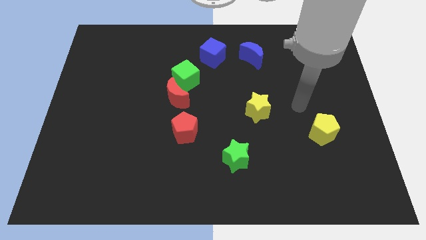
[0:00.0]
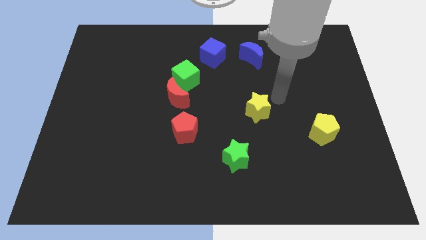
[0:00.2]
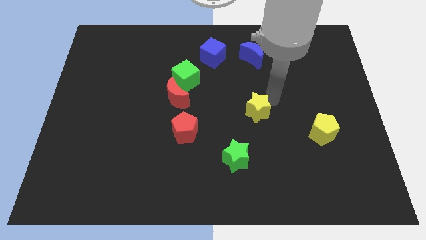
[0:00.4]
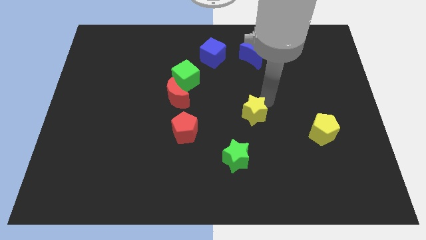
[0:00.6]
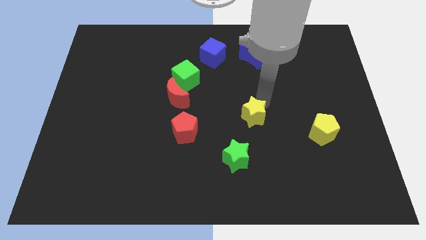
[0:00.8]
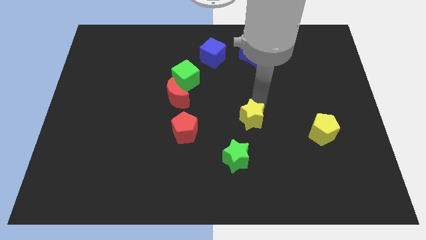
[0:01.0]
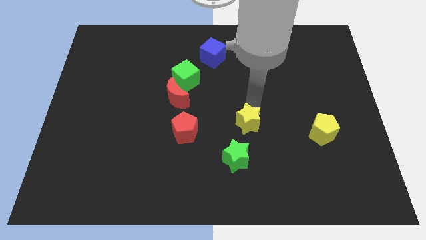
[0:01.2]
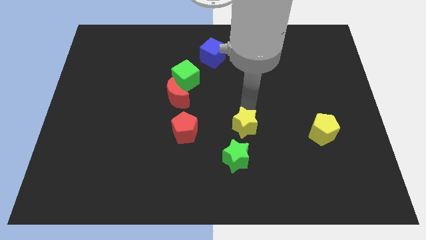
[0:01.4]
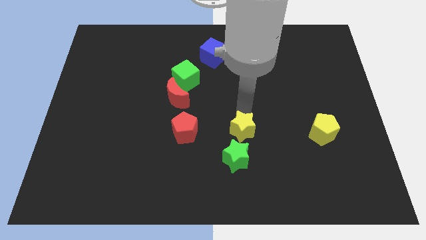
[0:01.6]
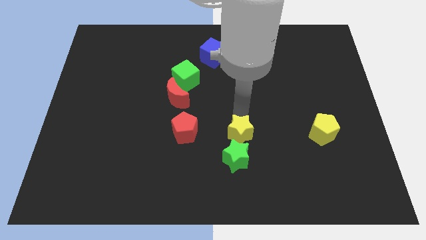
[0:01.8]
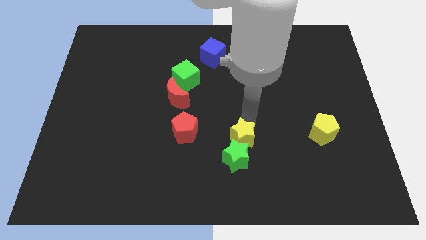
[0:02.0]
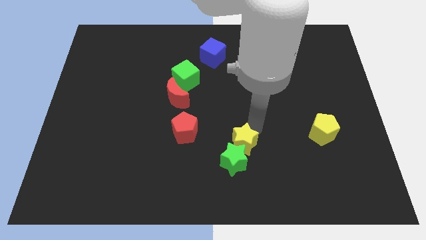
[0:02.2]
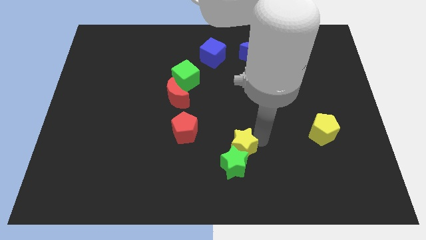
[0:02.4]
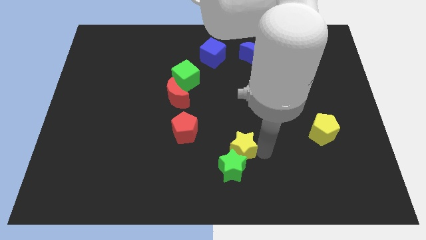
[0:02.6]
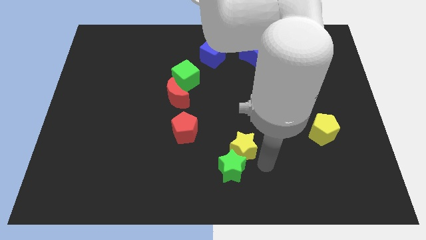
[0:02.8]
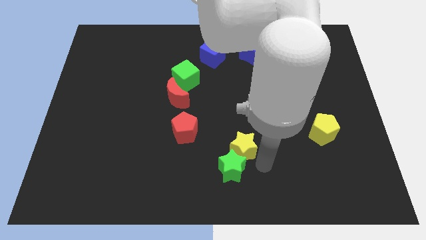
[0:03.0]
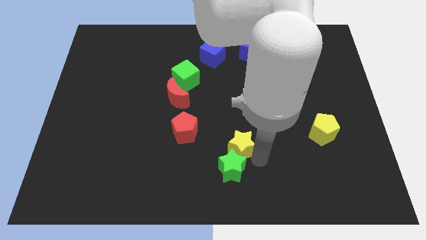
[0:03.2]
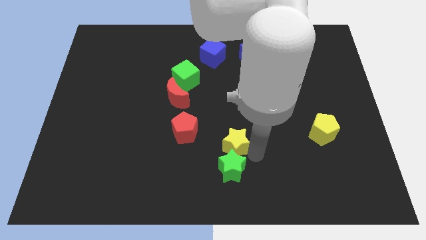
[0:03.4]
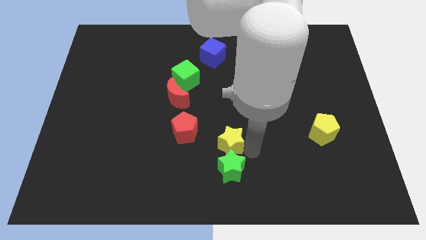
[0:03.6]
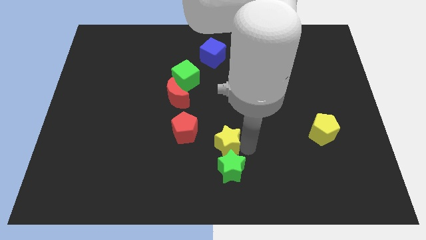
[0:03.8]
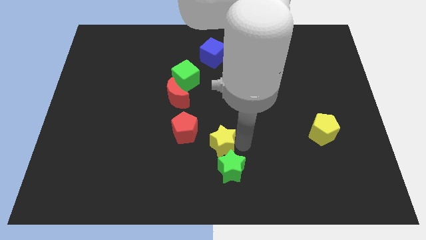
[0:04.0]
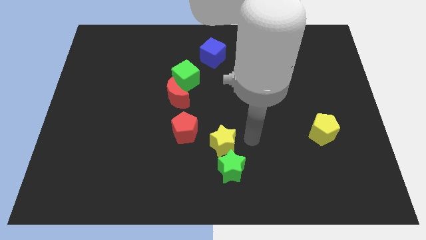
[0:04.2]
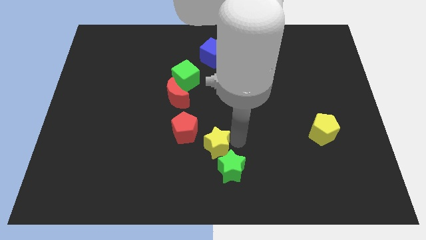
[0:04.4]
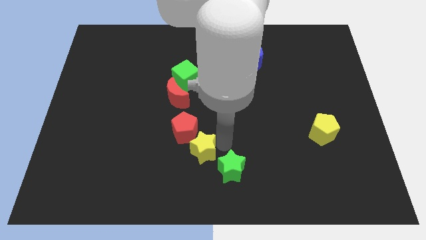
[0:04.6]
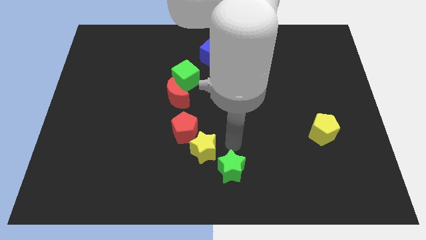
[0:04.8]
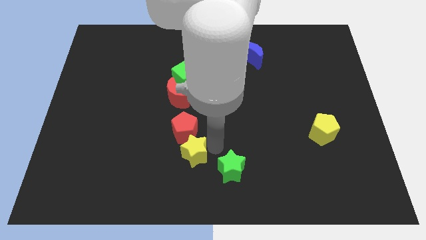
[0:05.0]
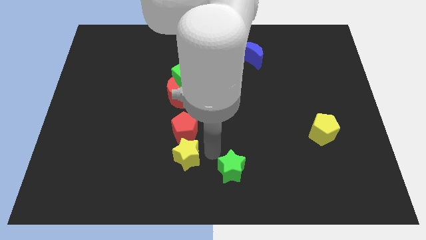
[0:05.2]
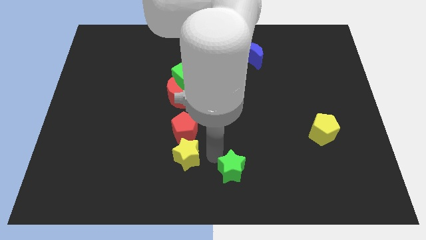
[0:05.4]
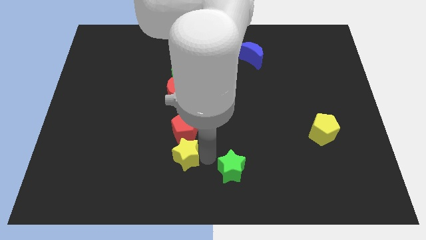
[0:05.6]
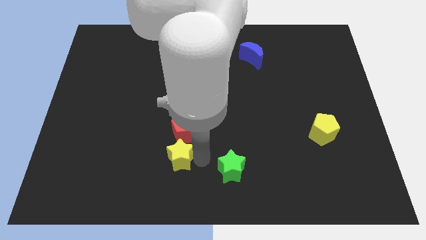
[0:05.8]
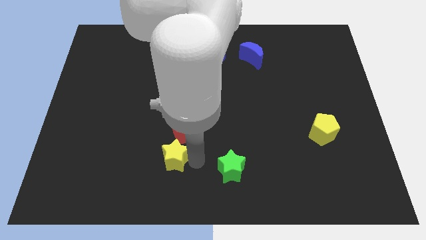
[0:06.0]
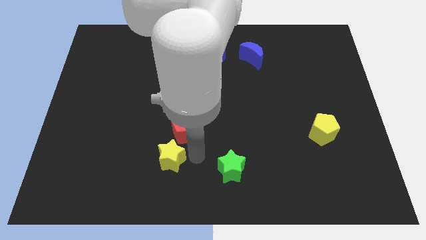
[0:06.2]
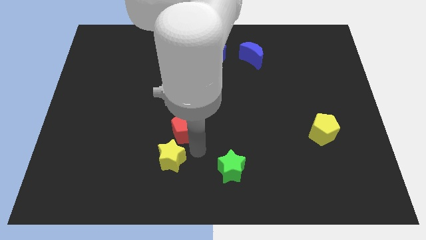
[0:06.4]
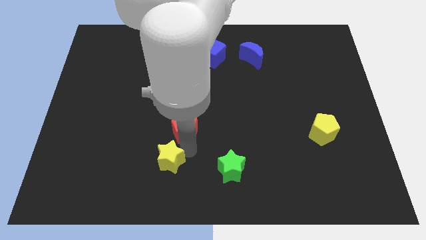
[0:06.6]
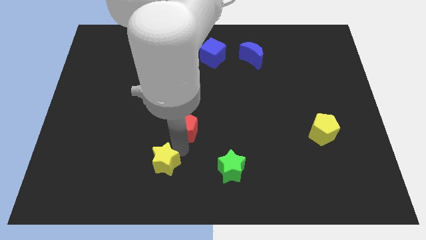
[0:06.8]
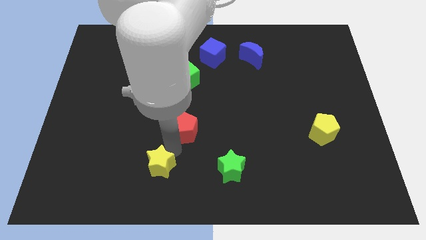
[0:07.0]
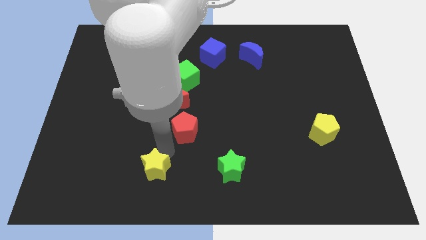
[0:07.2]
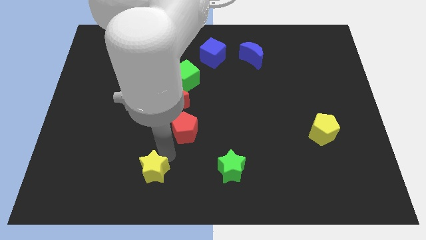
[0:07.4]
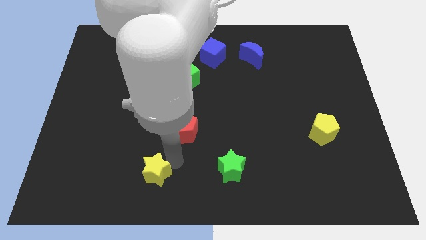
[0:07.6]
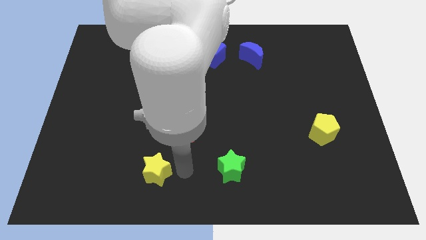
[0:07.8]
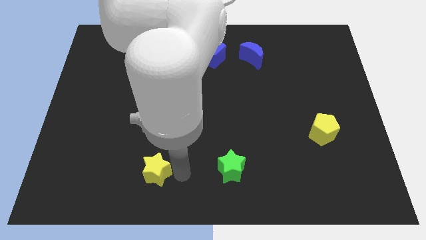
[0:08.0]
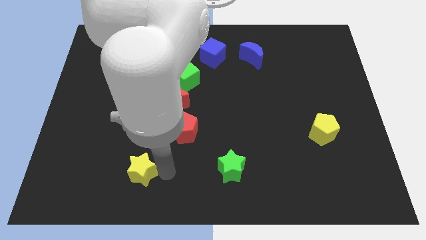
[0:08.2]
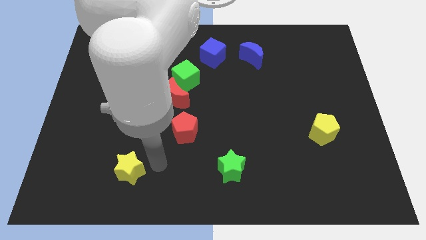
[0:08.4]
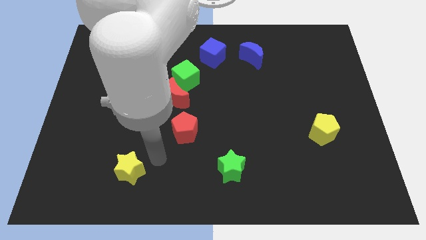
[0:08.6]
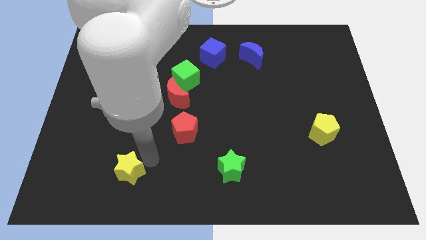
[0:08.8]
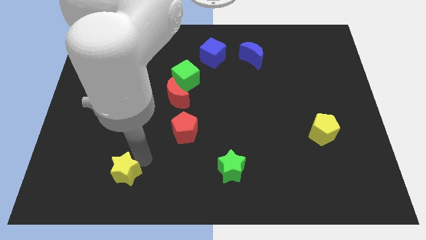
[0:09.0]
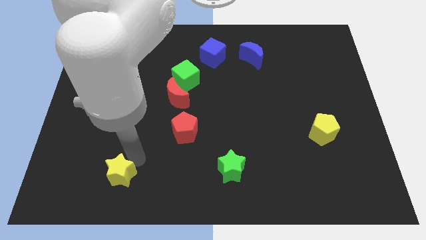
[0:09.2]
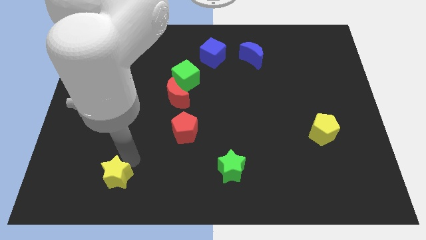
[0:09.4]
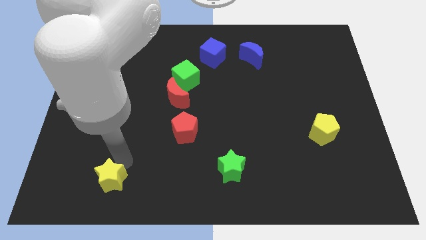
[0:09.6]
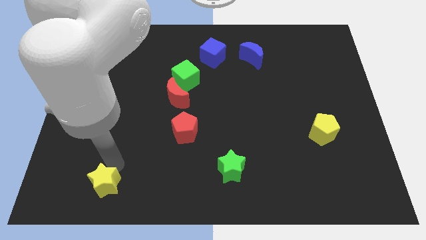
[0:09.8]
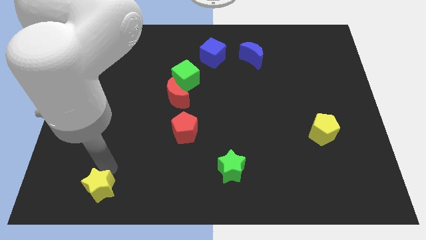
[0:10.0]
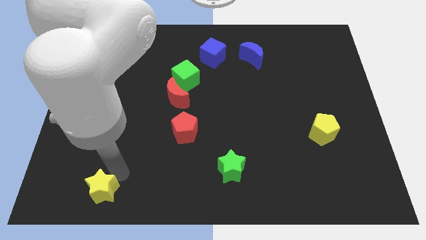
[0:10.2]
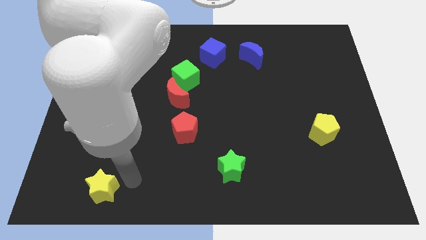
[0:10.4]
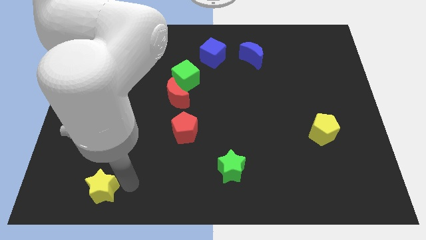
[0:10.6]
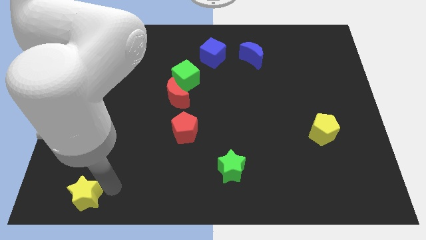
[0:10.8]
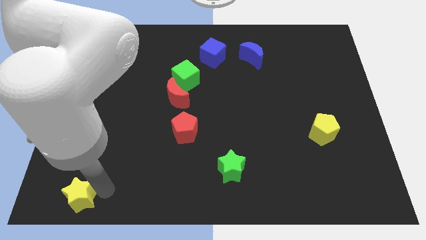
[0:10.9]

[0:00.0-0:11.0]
push the yellow star to the bottom left of the board

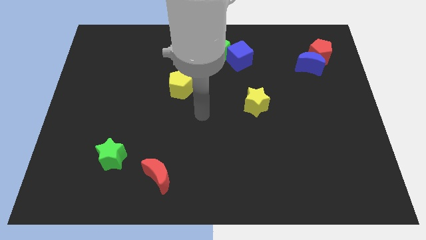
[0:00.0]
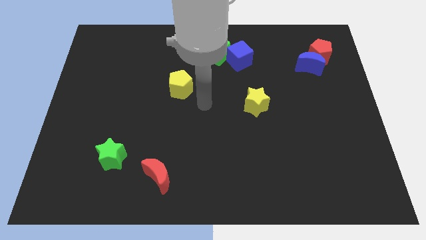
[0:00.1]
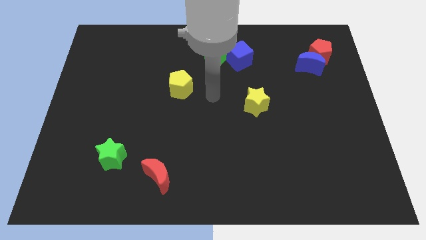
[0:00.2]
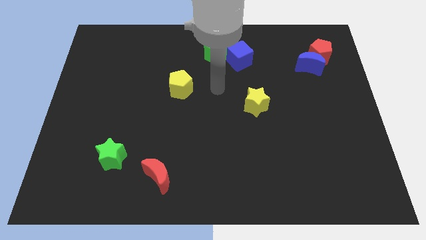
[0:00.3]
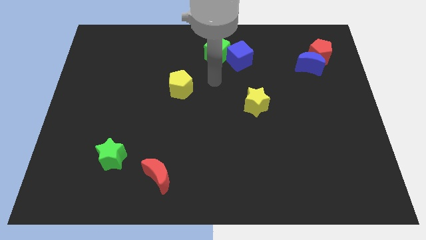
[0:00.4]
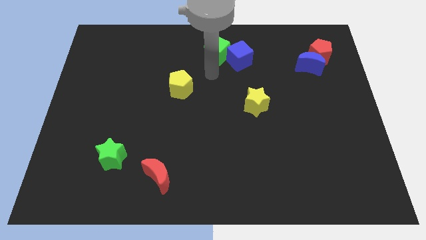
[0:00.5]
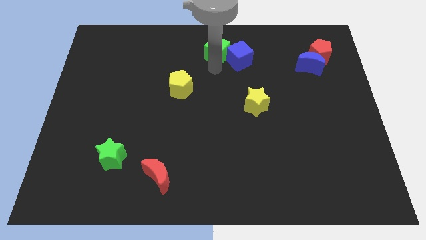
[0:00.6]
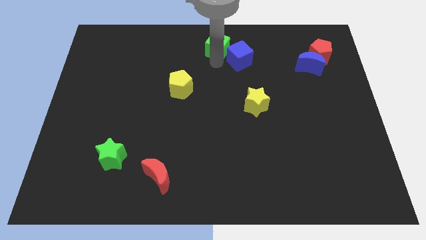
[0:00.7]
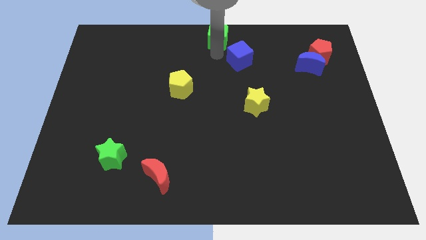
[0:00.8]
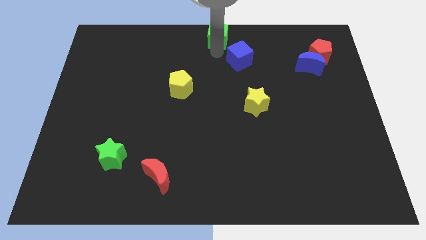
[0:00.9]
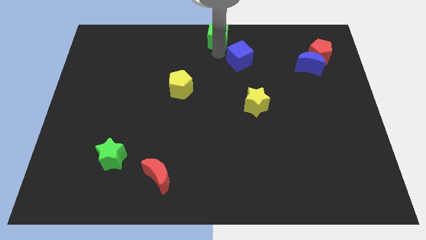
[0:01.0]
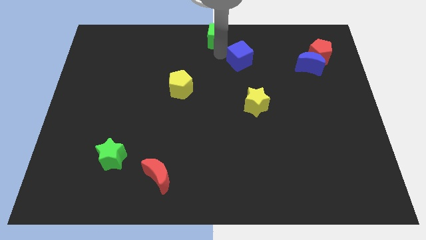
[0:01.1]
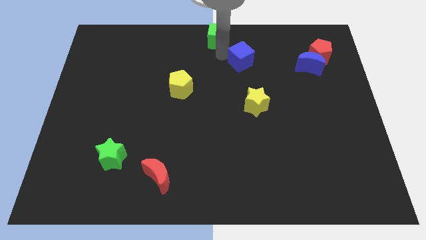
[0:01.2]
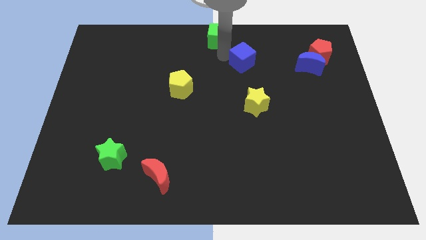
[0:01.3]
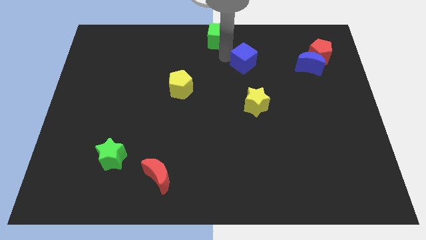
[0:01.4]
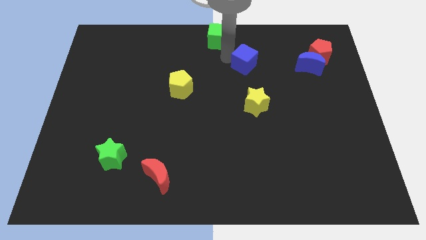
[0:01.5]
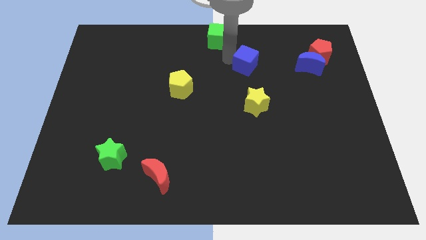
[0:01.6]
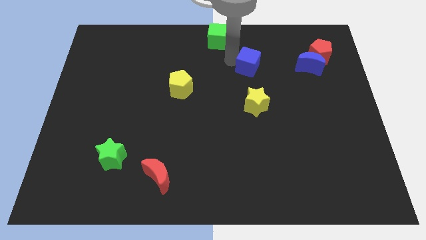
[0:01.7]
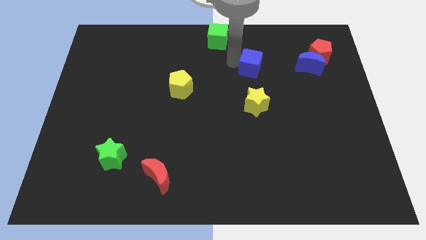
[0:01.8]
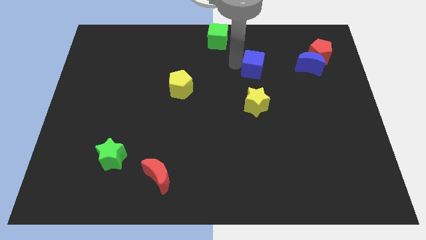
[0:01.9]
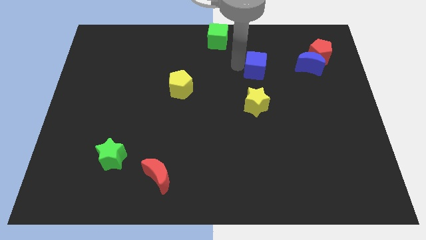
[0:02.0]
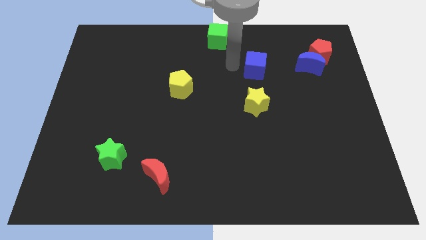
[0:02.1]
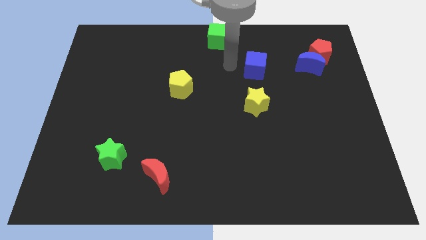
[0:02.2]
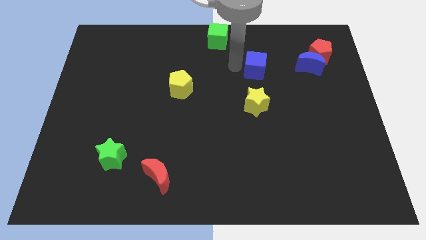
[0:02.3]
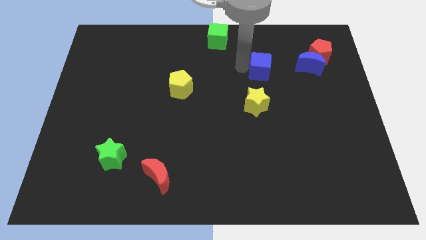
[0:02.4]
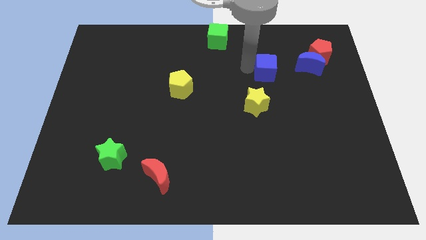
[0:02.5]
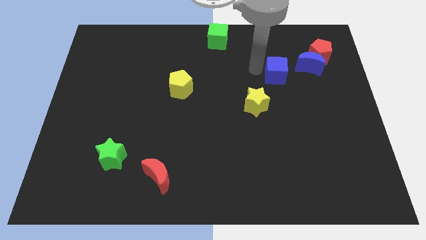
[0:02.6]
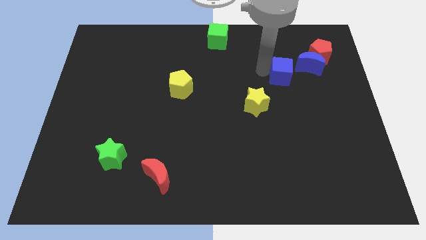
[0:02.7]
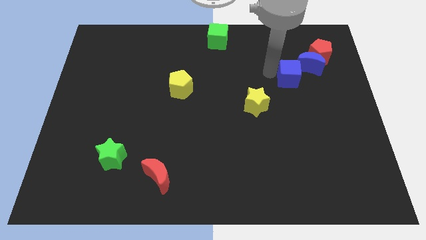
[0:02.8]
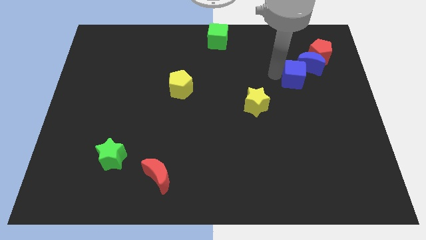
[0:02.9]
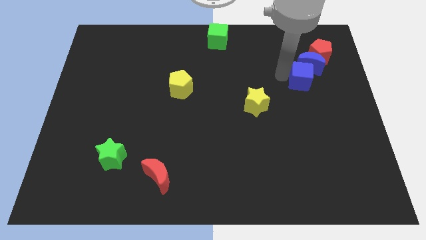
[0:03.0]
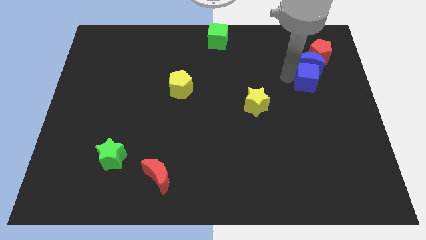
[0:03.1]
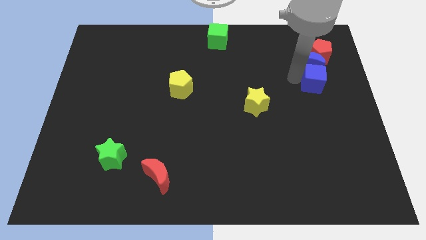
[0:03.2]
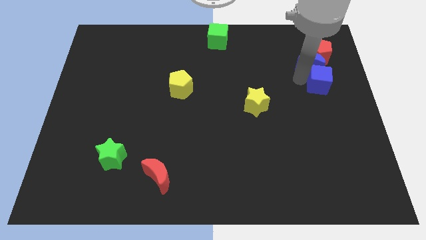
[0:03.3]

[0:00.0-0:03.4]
slide the blue cube to the right side
